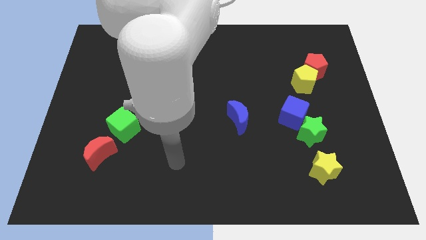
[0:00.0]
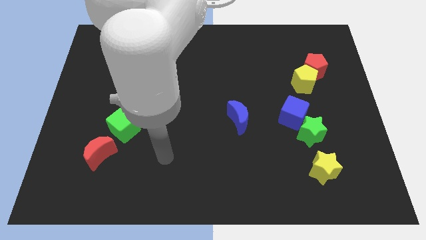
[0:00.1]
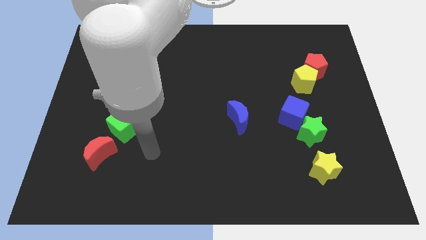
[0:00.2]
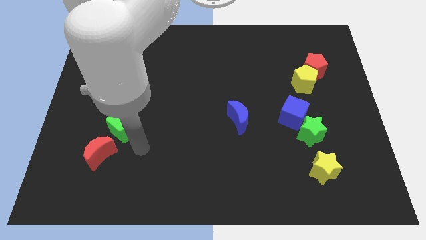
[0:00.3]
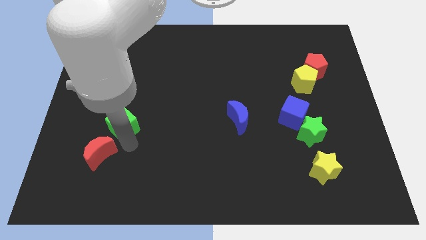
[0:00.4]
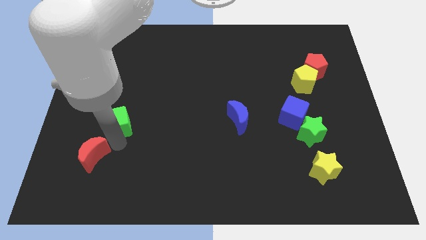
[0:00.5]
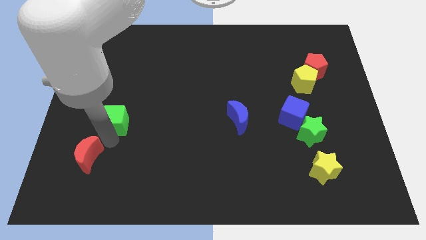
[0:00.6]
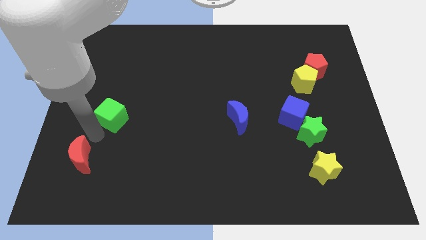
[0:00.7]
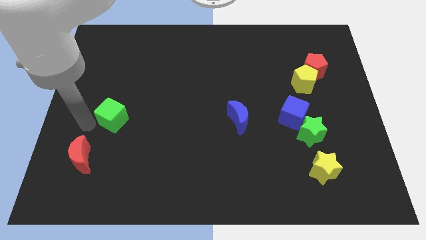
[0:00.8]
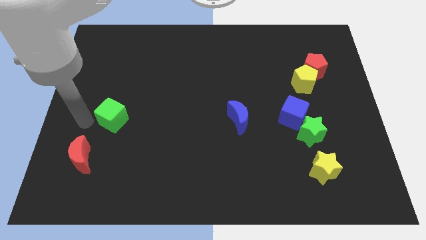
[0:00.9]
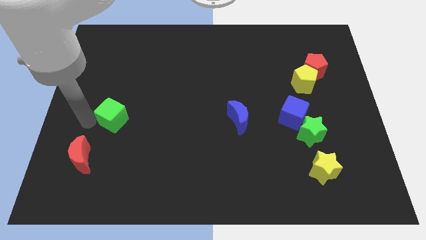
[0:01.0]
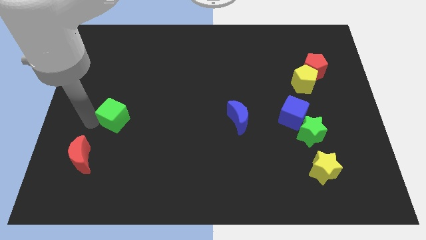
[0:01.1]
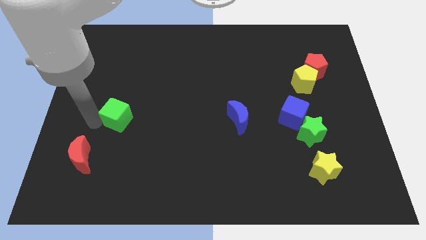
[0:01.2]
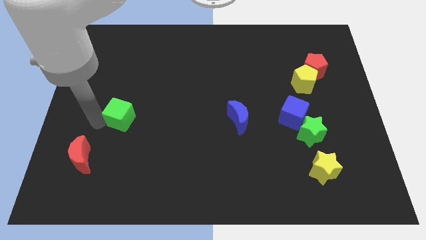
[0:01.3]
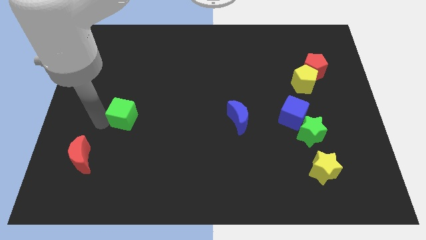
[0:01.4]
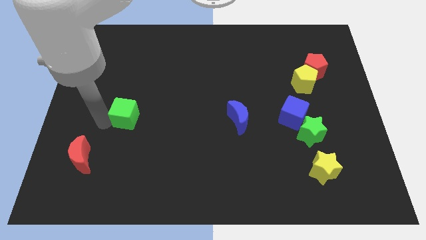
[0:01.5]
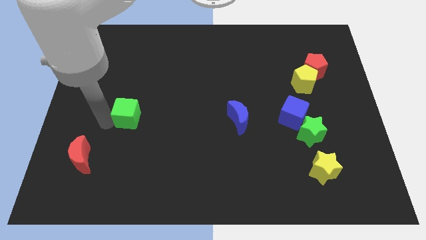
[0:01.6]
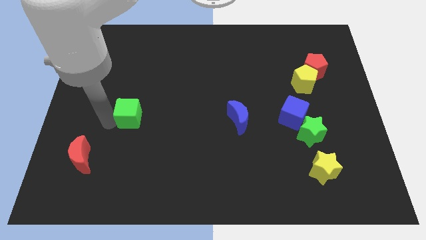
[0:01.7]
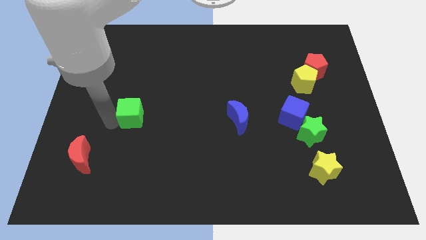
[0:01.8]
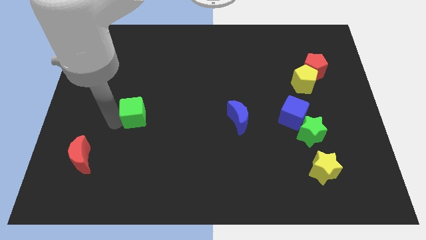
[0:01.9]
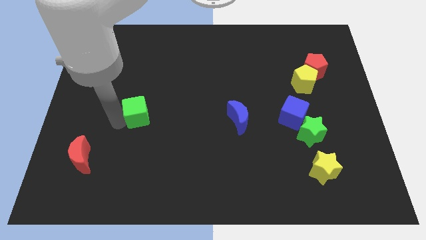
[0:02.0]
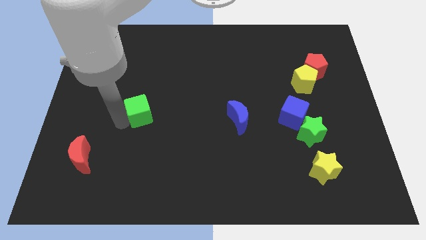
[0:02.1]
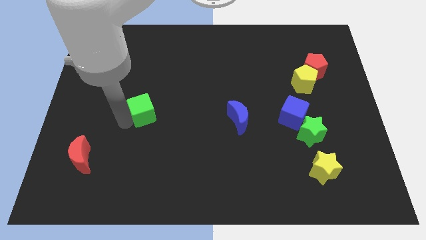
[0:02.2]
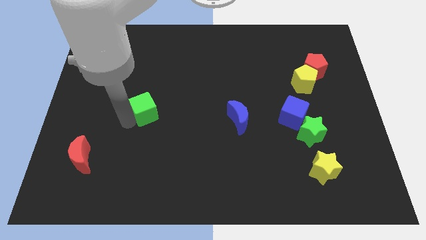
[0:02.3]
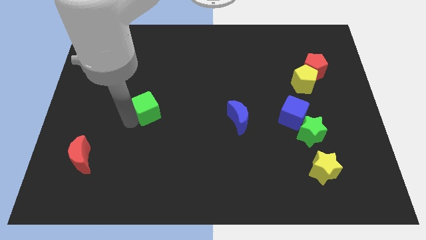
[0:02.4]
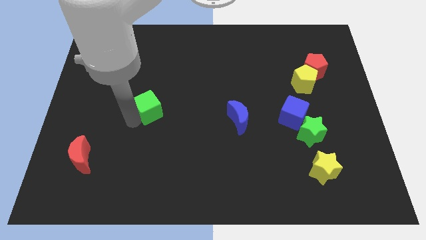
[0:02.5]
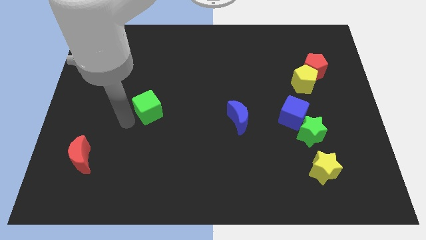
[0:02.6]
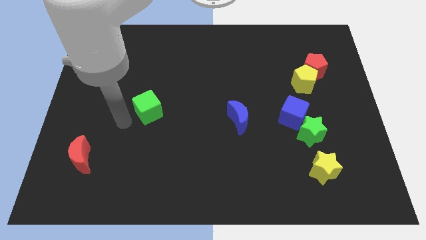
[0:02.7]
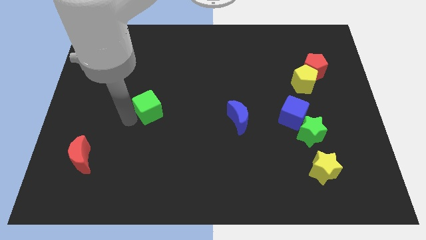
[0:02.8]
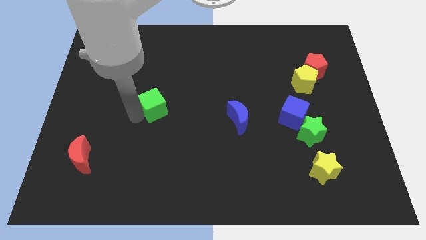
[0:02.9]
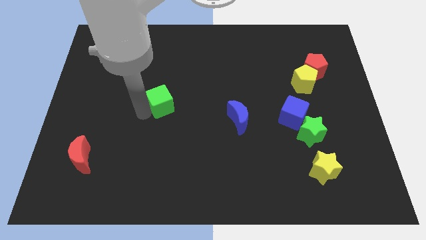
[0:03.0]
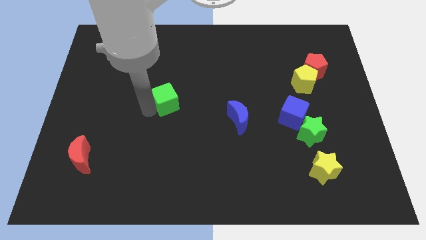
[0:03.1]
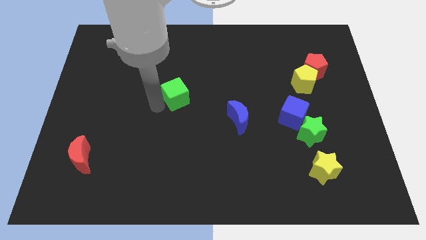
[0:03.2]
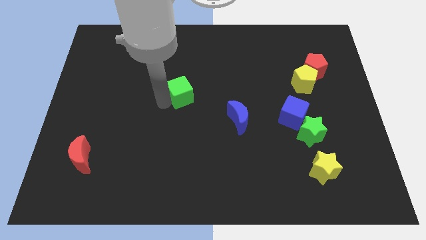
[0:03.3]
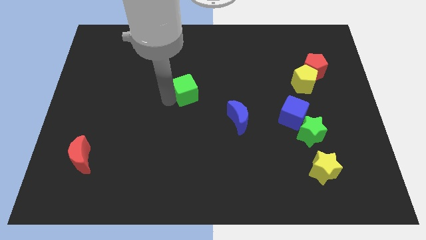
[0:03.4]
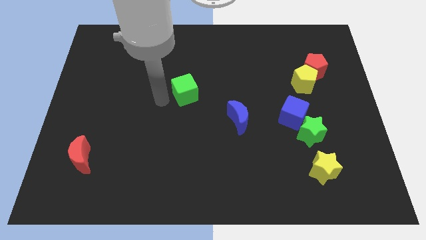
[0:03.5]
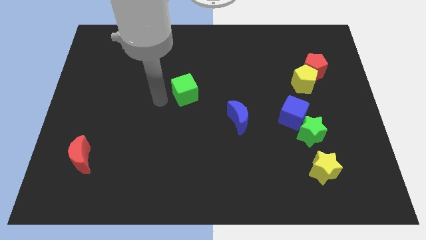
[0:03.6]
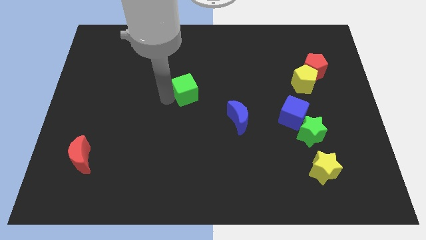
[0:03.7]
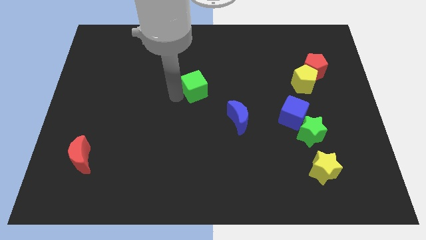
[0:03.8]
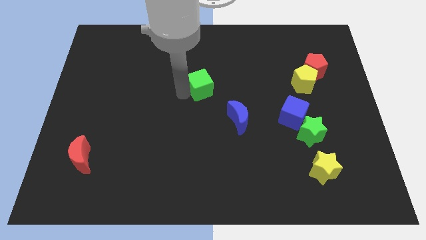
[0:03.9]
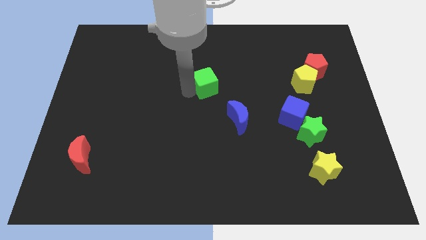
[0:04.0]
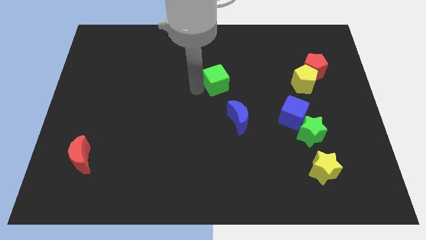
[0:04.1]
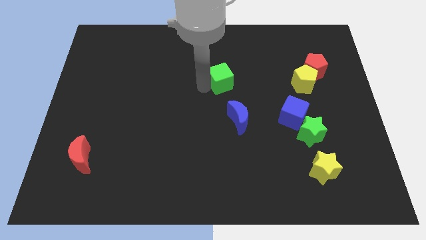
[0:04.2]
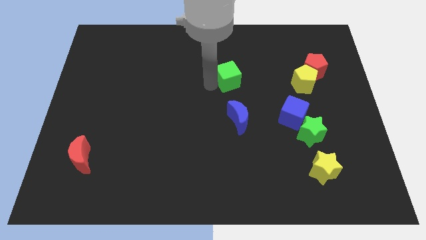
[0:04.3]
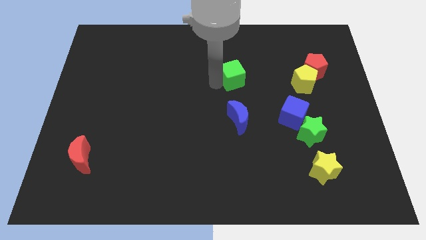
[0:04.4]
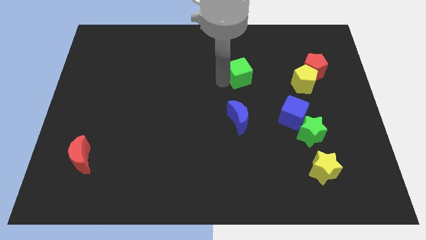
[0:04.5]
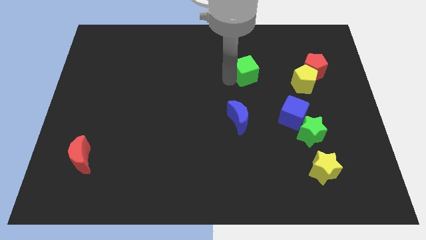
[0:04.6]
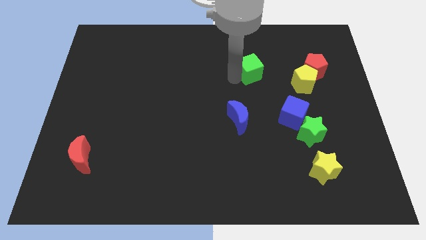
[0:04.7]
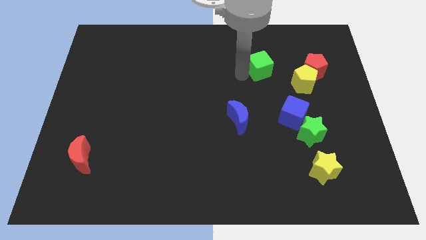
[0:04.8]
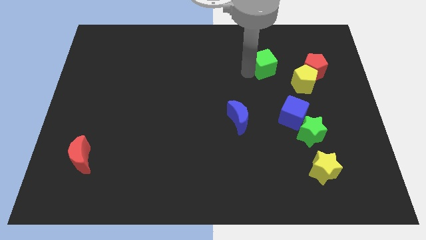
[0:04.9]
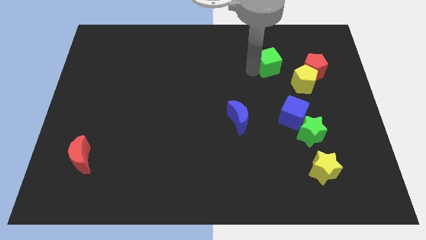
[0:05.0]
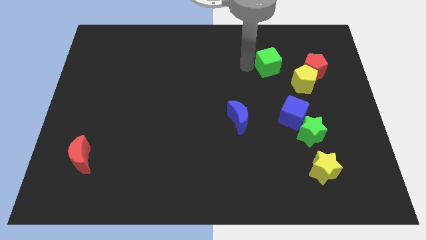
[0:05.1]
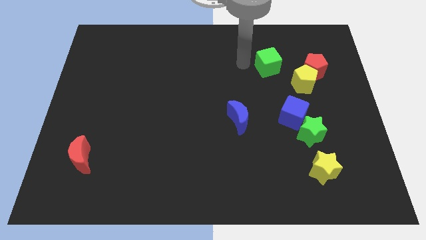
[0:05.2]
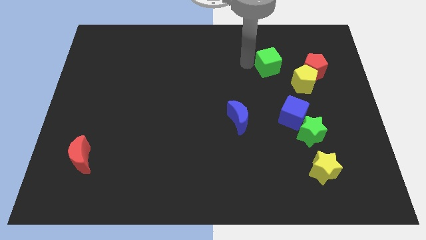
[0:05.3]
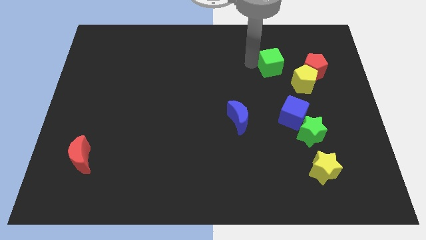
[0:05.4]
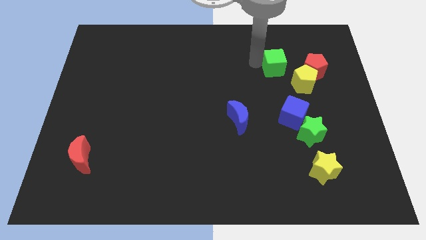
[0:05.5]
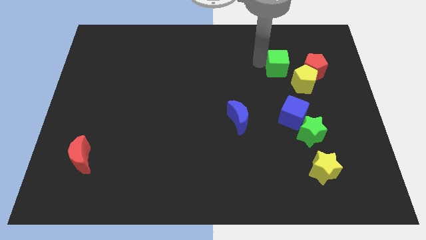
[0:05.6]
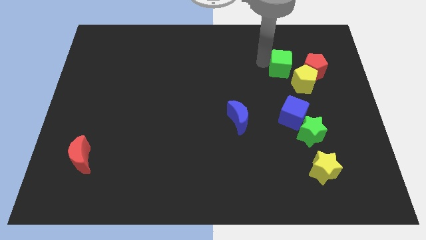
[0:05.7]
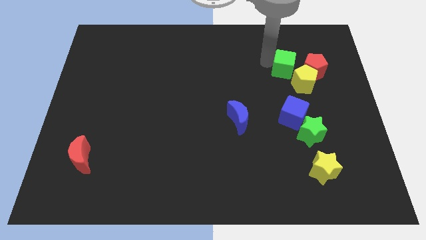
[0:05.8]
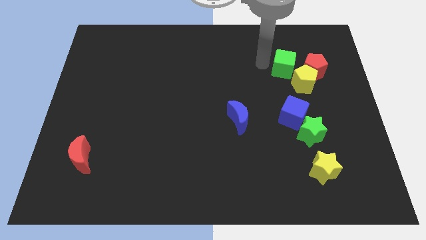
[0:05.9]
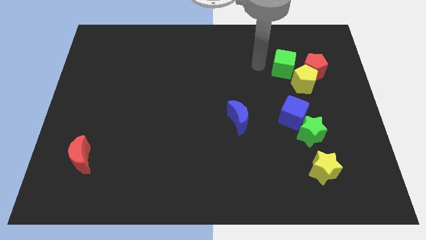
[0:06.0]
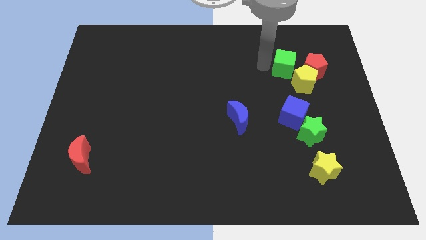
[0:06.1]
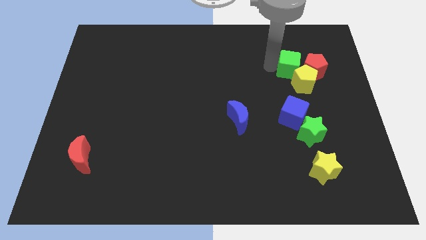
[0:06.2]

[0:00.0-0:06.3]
put the green cube towards the red pentagon

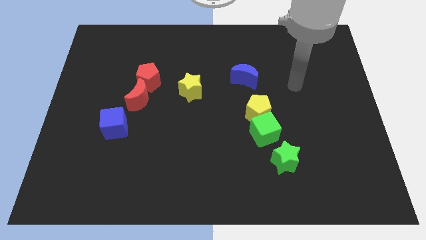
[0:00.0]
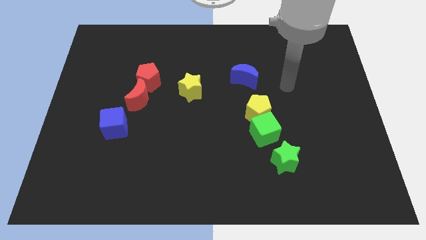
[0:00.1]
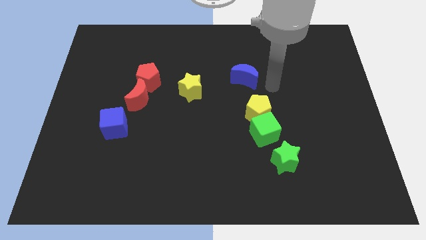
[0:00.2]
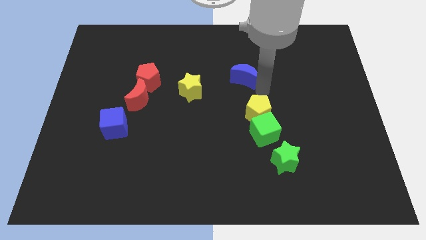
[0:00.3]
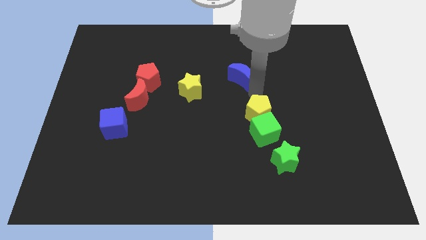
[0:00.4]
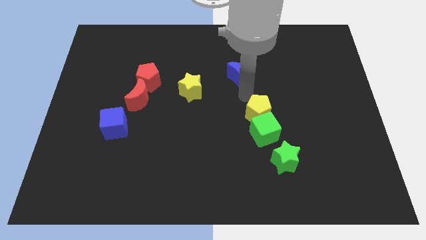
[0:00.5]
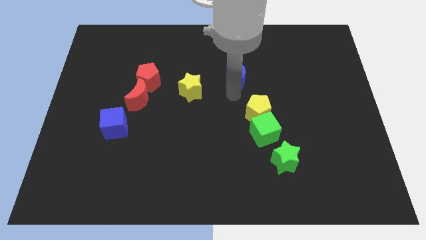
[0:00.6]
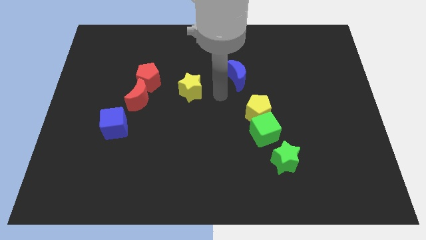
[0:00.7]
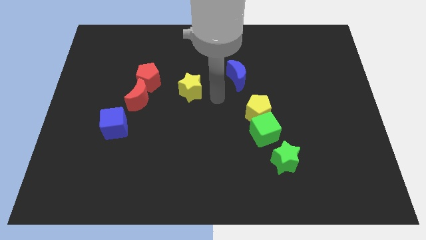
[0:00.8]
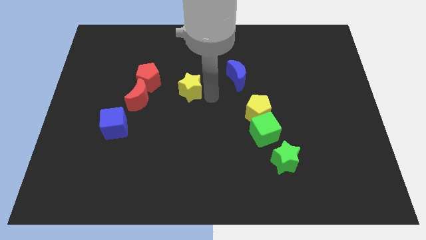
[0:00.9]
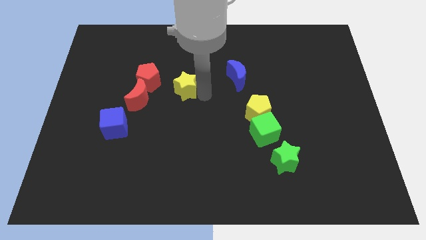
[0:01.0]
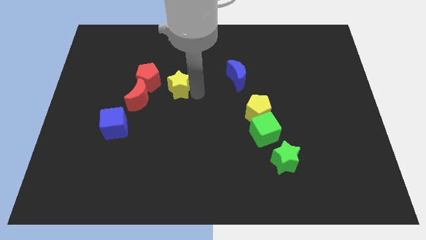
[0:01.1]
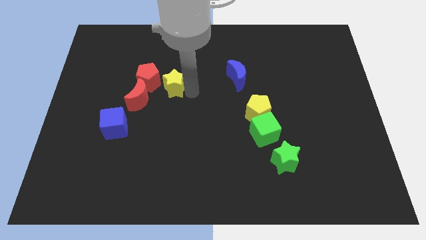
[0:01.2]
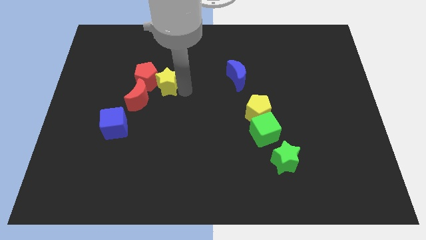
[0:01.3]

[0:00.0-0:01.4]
slide the yellow star close to the red pentagon

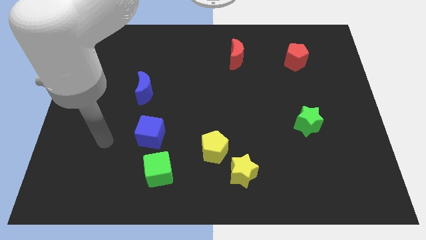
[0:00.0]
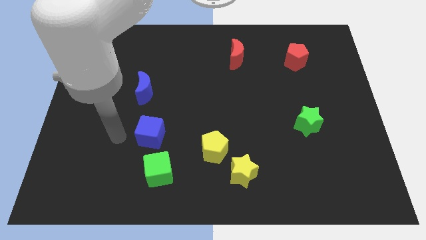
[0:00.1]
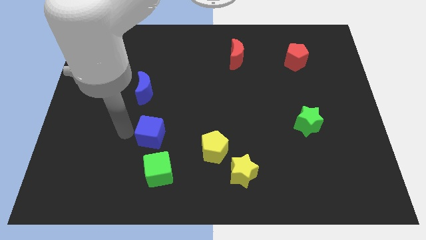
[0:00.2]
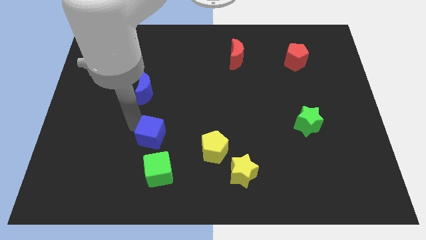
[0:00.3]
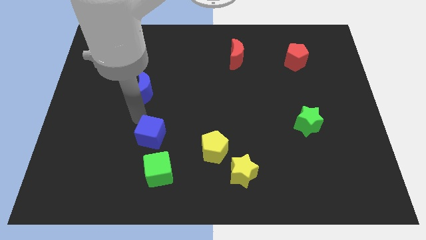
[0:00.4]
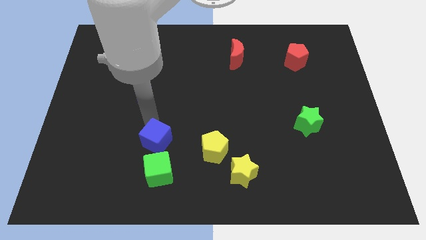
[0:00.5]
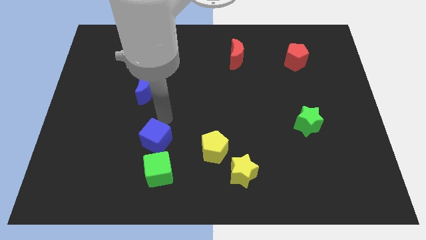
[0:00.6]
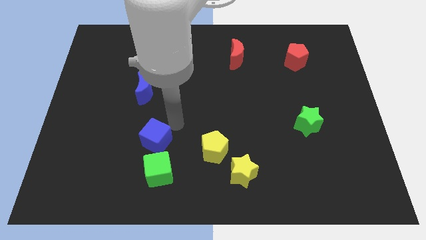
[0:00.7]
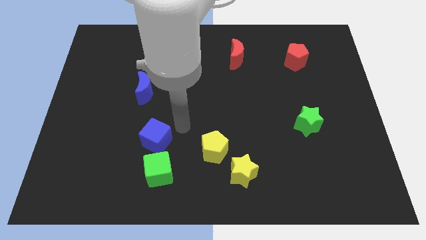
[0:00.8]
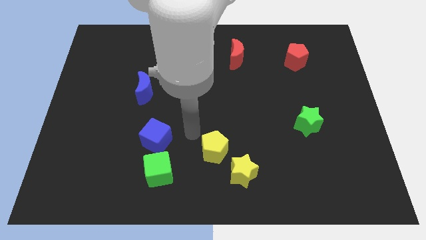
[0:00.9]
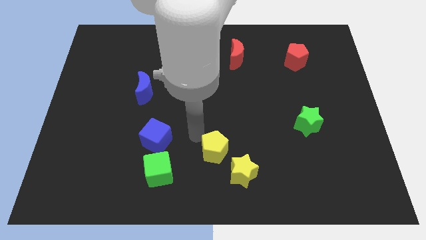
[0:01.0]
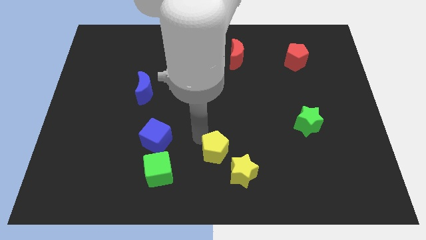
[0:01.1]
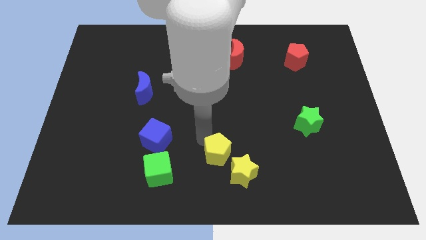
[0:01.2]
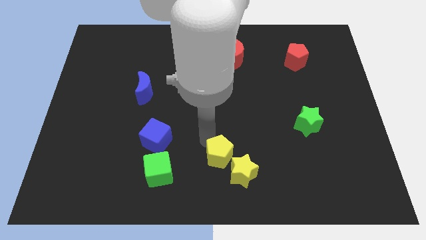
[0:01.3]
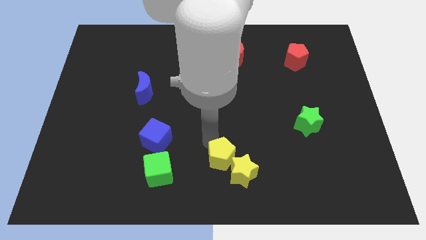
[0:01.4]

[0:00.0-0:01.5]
put the yellow pentagon next to the yellow star
